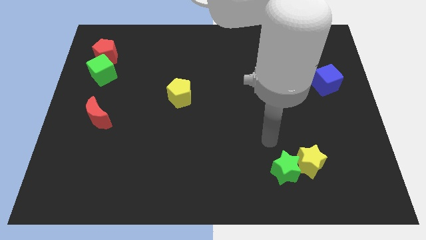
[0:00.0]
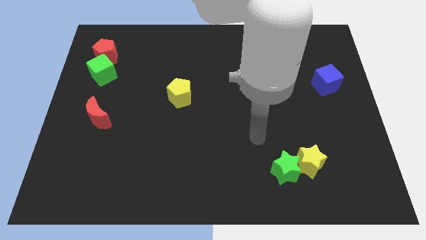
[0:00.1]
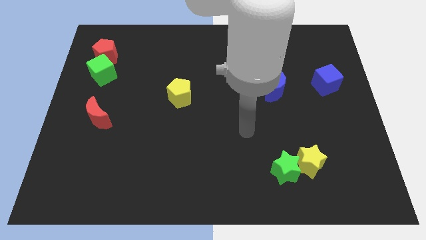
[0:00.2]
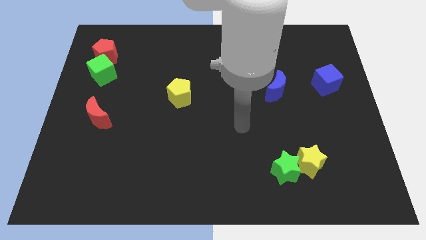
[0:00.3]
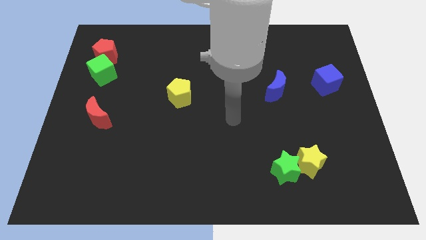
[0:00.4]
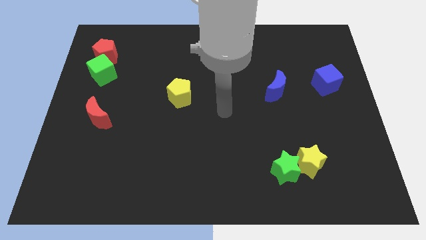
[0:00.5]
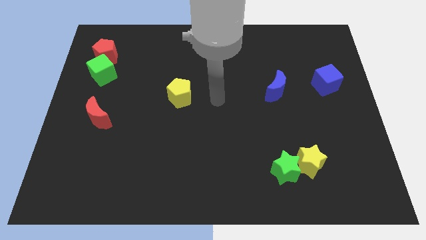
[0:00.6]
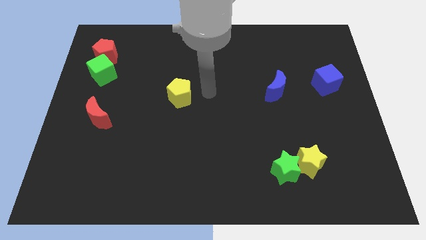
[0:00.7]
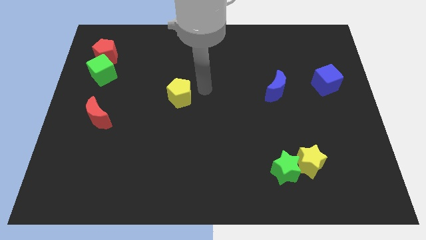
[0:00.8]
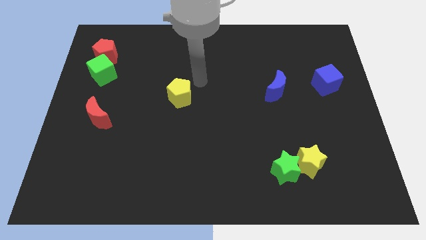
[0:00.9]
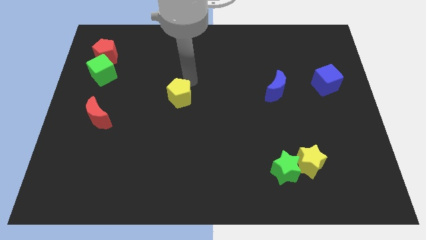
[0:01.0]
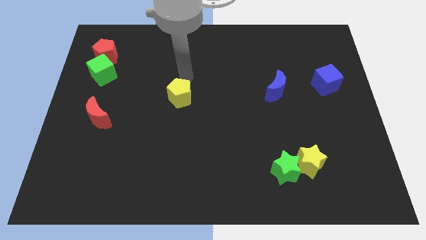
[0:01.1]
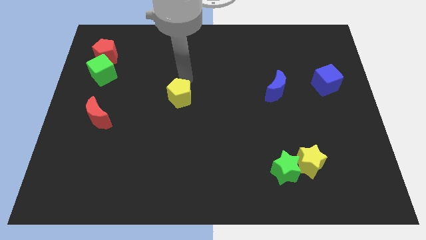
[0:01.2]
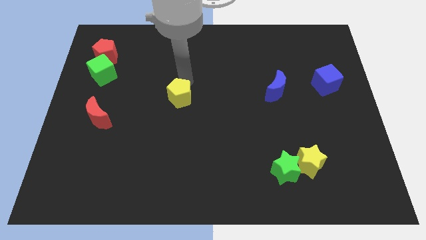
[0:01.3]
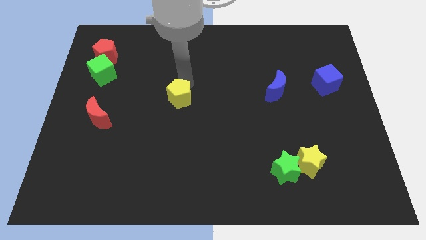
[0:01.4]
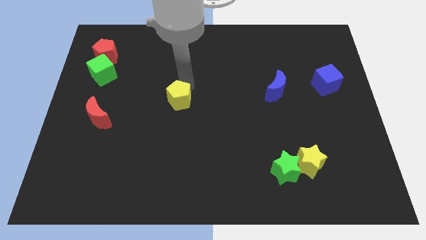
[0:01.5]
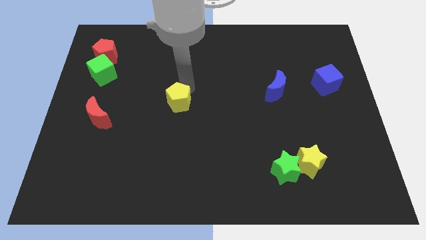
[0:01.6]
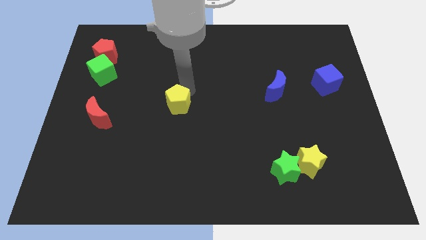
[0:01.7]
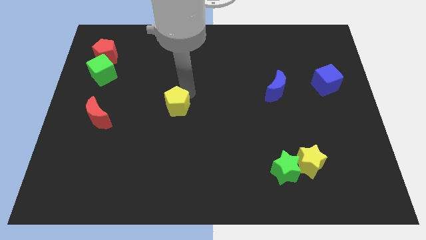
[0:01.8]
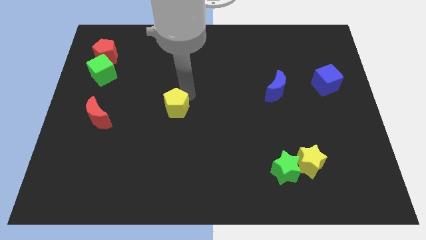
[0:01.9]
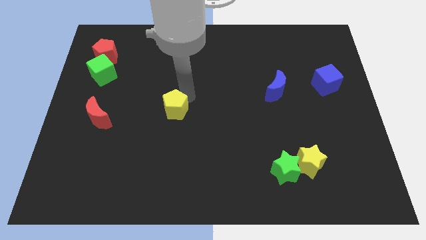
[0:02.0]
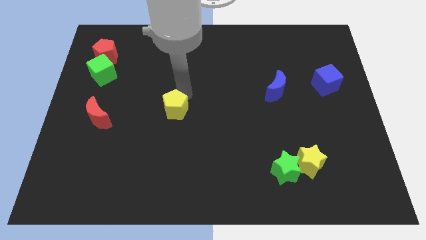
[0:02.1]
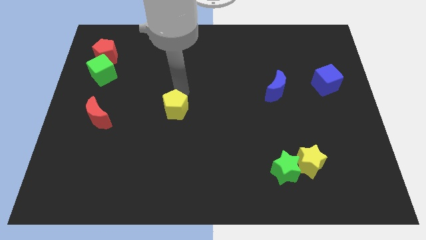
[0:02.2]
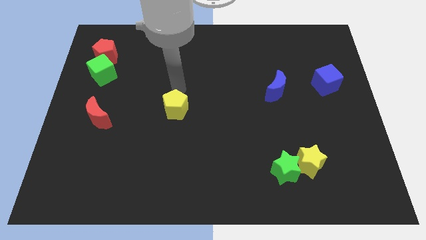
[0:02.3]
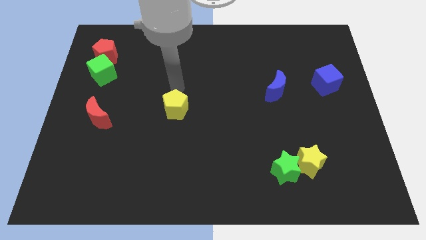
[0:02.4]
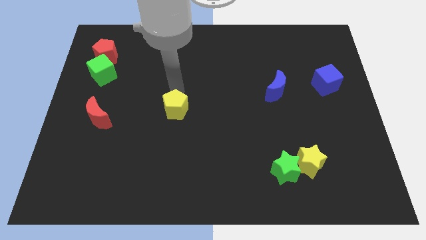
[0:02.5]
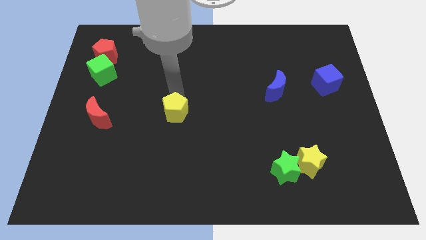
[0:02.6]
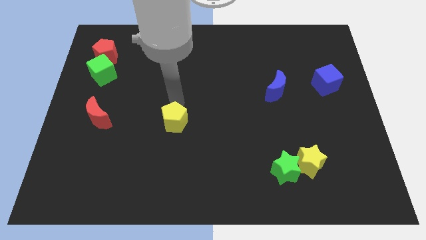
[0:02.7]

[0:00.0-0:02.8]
push the yellow pentagon somewhat downwards

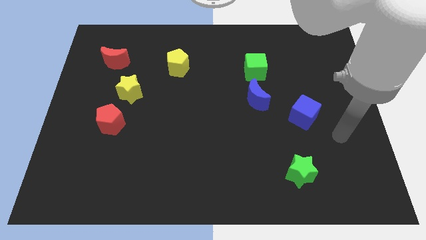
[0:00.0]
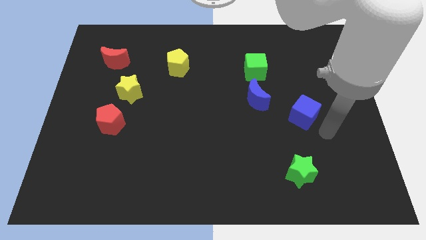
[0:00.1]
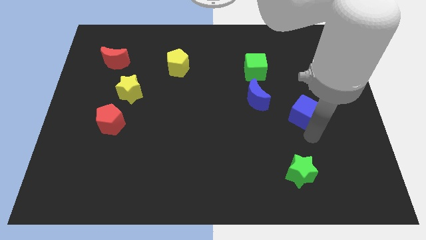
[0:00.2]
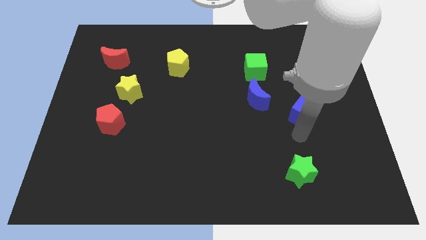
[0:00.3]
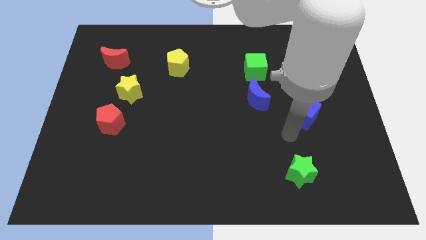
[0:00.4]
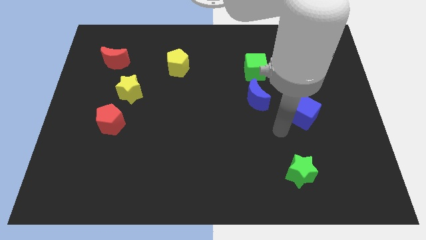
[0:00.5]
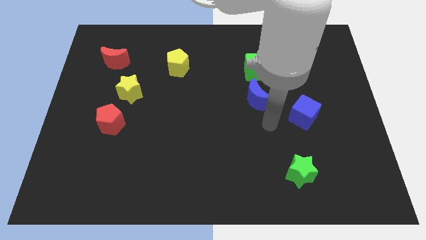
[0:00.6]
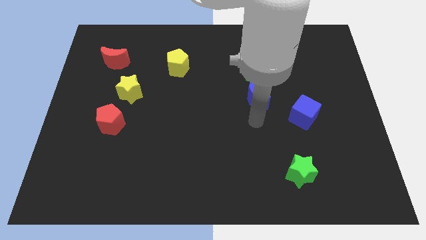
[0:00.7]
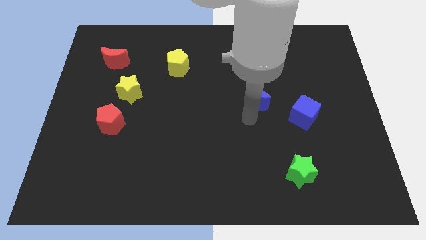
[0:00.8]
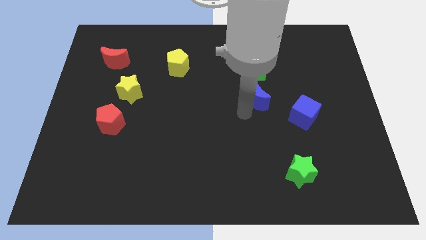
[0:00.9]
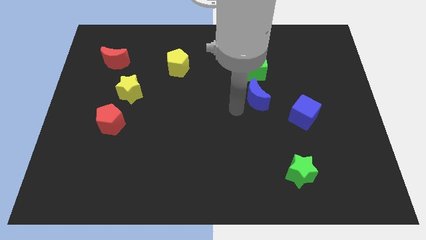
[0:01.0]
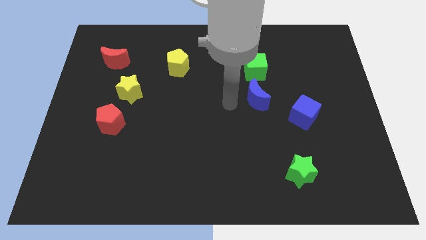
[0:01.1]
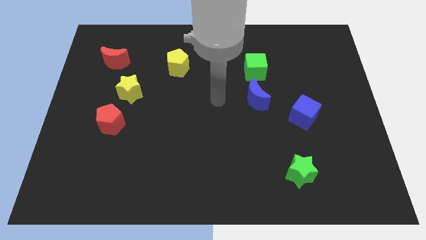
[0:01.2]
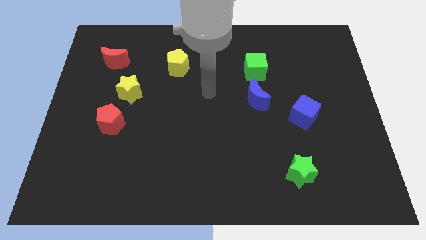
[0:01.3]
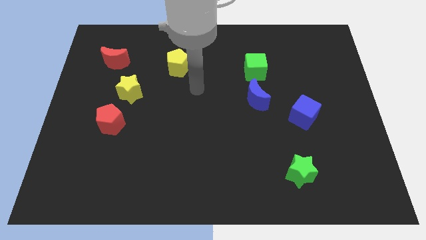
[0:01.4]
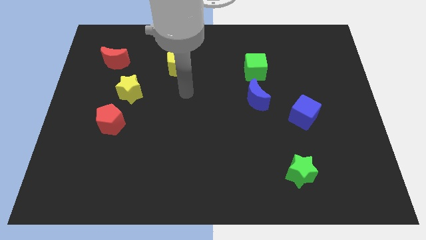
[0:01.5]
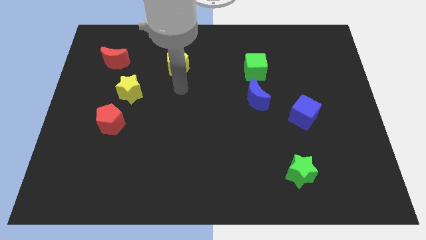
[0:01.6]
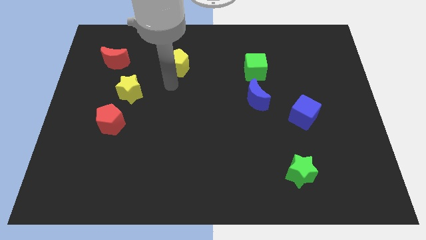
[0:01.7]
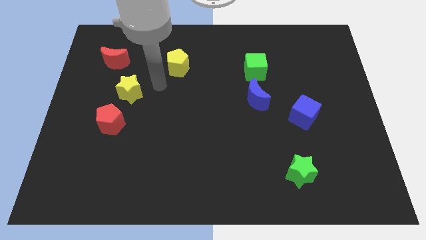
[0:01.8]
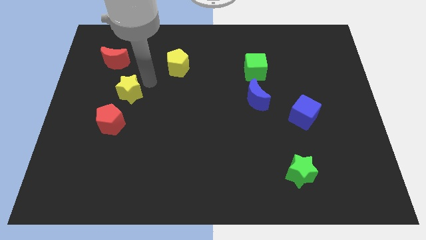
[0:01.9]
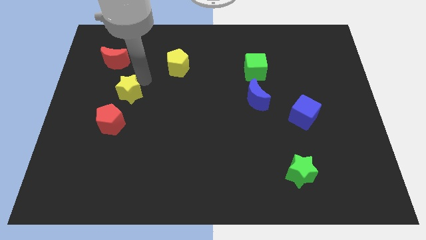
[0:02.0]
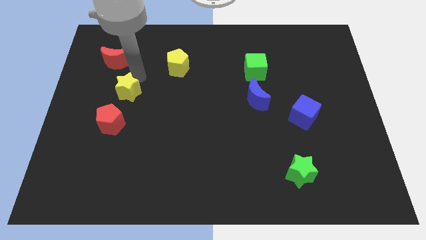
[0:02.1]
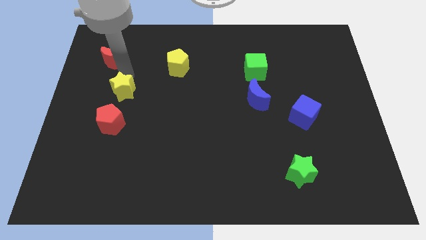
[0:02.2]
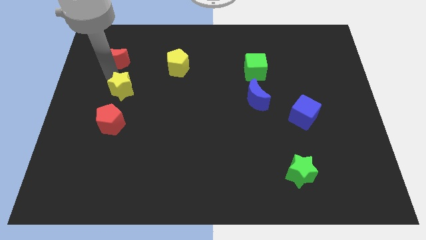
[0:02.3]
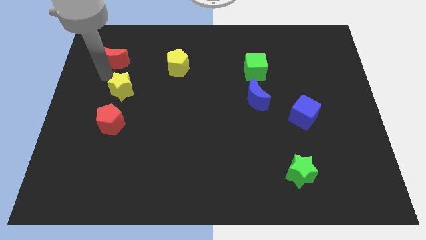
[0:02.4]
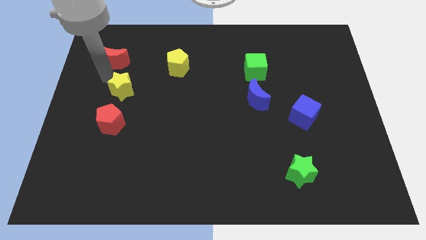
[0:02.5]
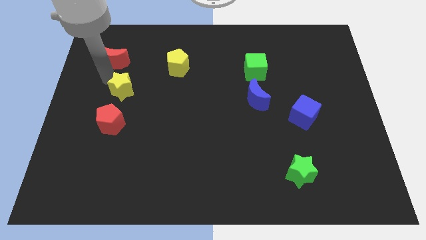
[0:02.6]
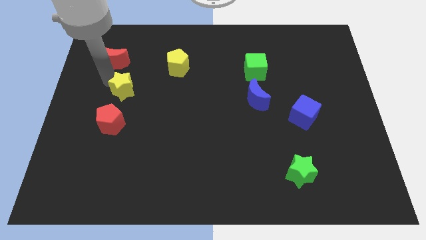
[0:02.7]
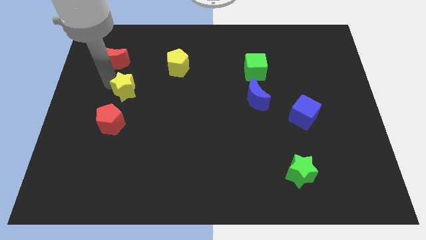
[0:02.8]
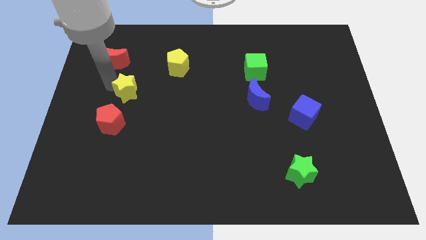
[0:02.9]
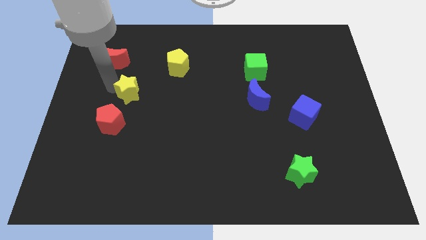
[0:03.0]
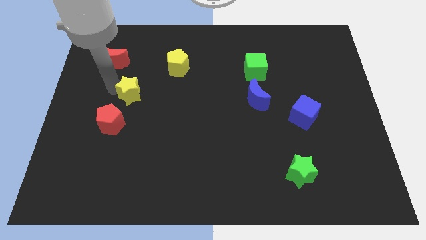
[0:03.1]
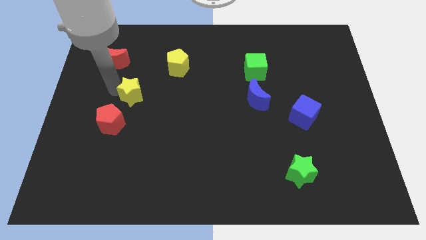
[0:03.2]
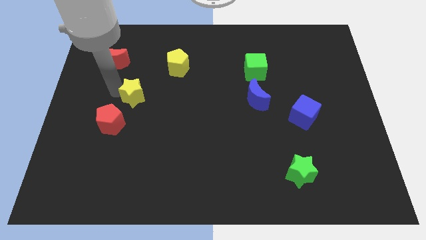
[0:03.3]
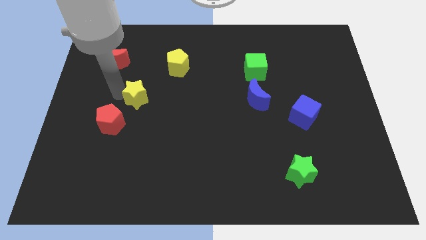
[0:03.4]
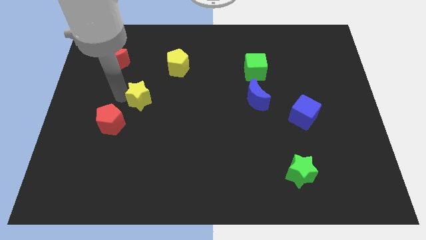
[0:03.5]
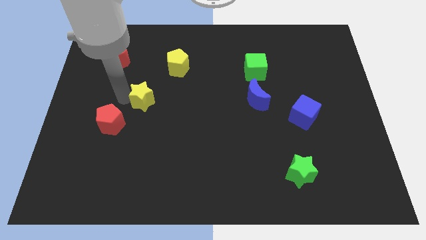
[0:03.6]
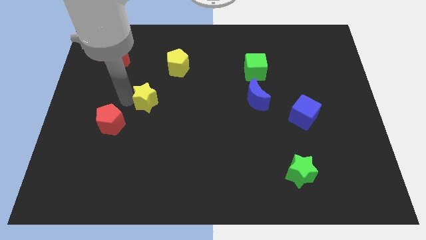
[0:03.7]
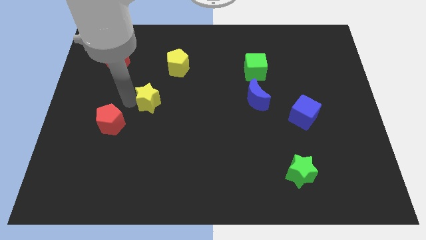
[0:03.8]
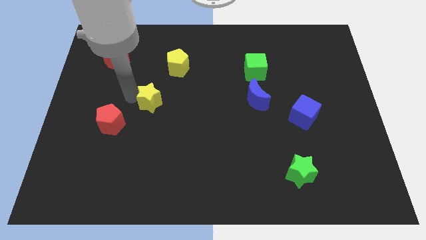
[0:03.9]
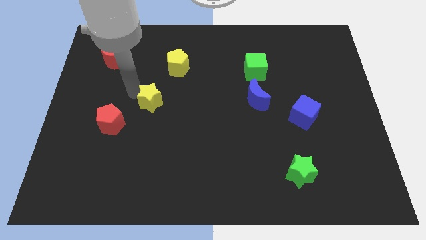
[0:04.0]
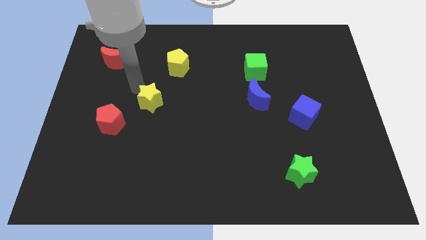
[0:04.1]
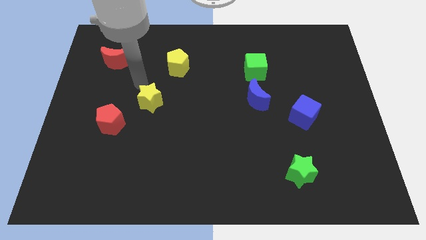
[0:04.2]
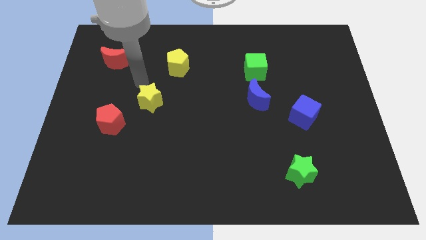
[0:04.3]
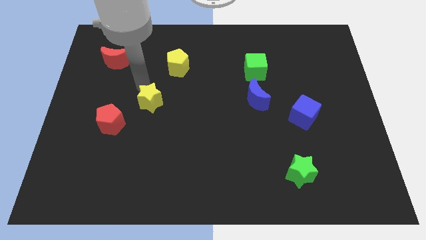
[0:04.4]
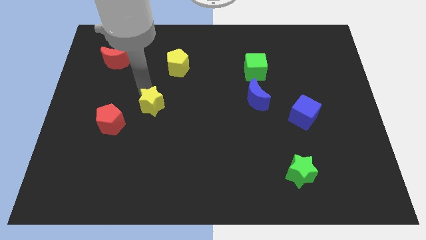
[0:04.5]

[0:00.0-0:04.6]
slide the yellow star a little bit down and then right

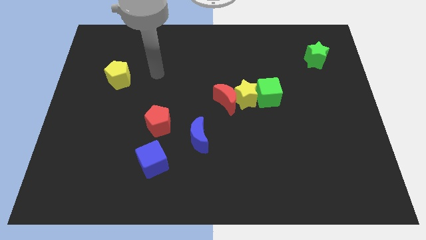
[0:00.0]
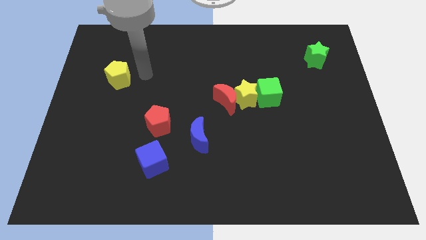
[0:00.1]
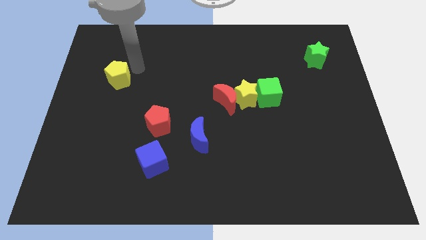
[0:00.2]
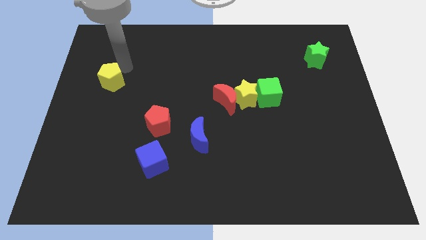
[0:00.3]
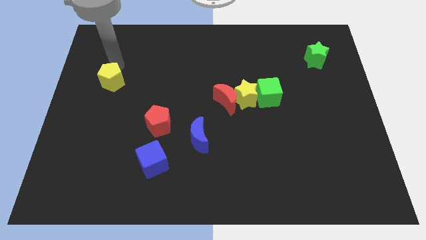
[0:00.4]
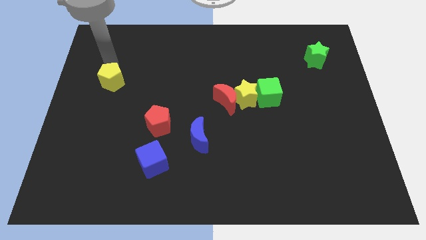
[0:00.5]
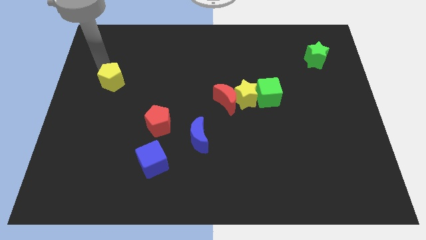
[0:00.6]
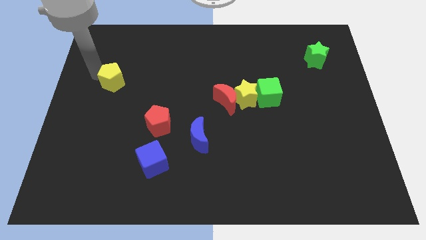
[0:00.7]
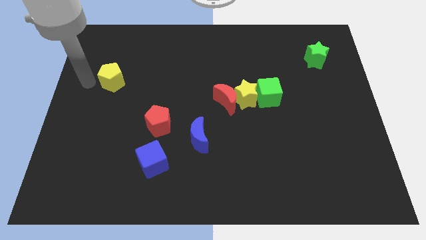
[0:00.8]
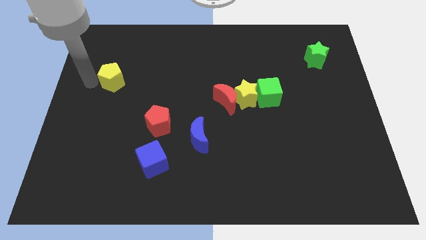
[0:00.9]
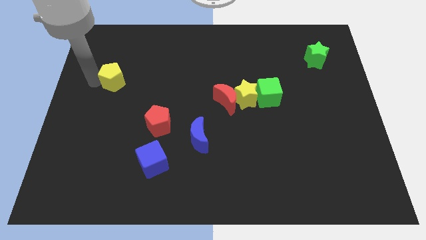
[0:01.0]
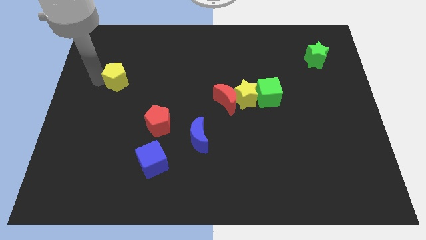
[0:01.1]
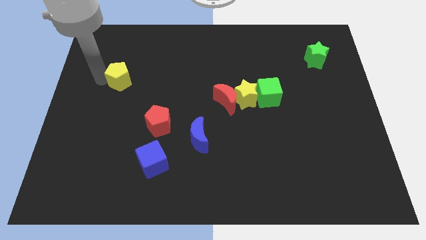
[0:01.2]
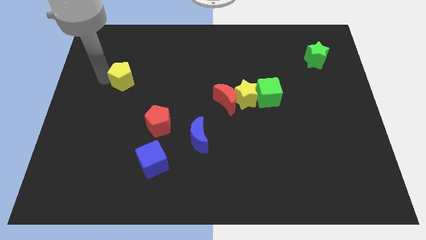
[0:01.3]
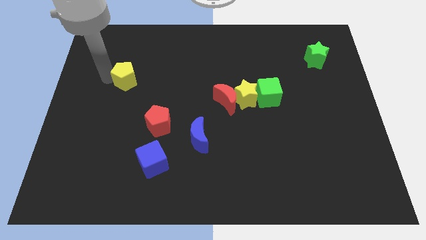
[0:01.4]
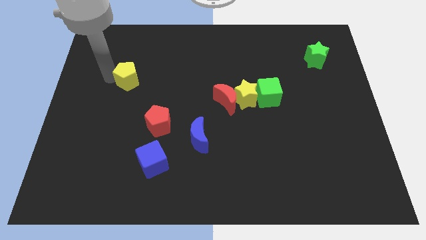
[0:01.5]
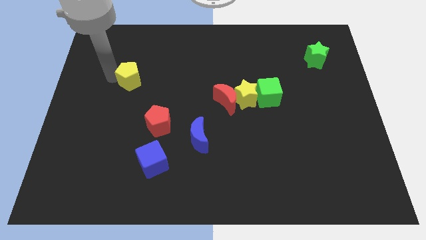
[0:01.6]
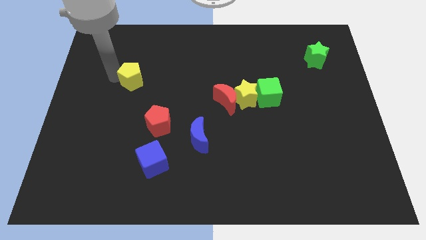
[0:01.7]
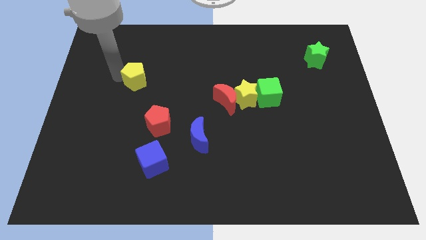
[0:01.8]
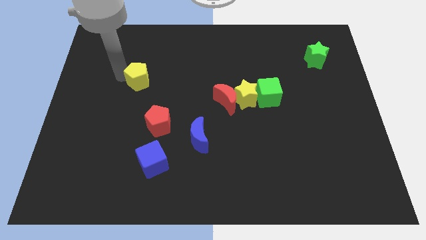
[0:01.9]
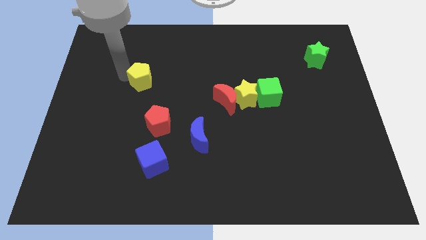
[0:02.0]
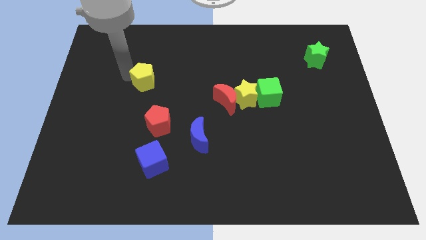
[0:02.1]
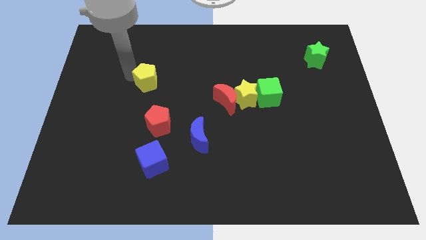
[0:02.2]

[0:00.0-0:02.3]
slightly slide the yellow pentagon to the right
